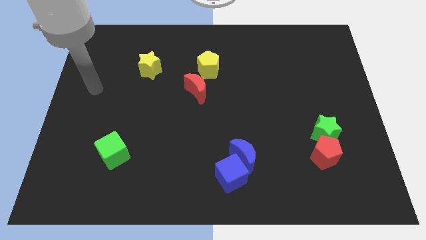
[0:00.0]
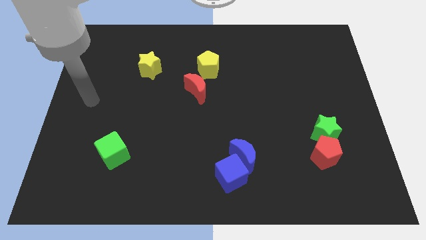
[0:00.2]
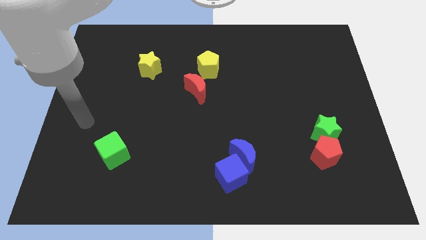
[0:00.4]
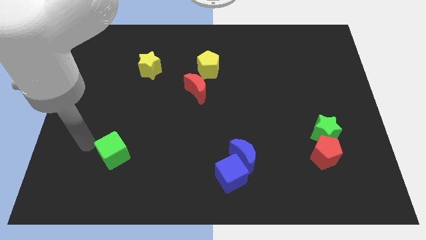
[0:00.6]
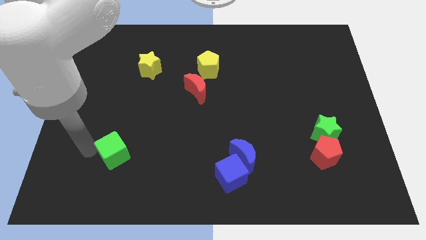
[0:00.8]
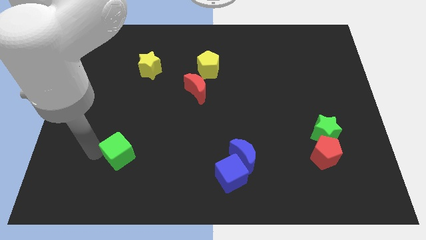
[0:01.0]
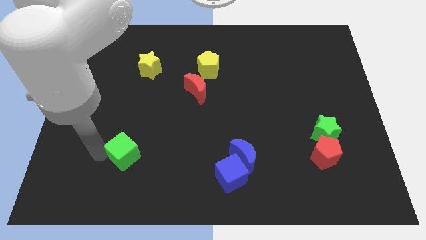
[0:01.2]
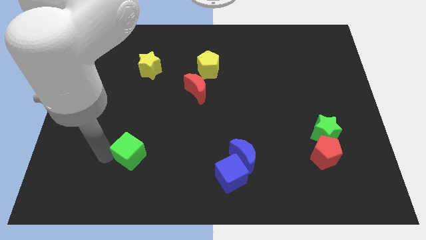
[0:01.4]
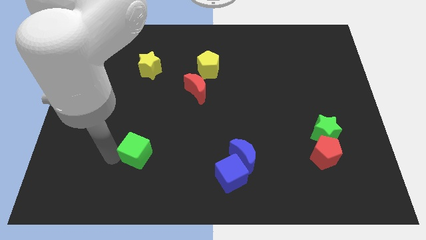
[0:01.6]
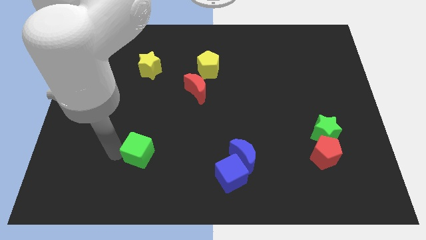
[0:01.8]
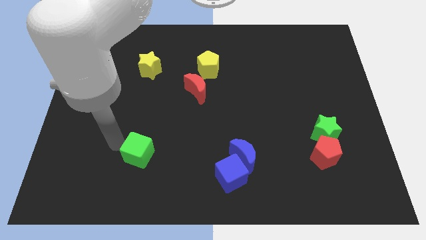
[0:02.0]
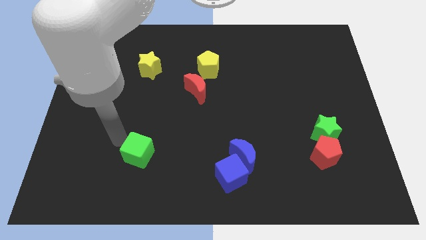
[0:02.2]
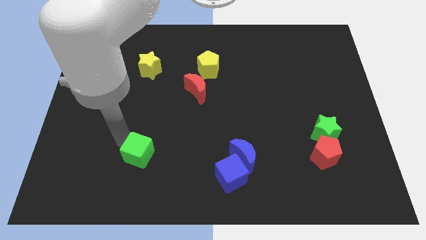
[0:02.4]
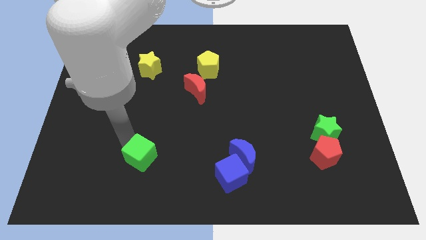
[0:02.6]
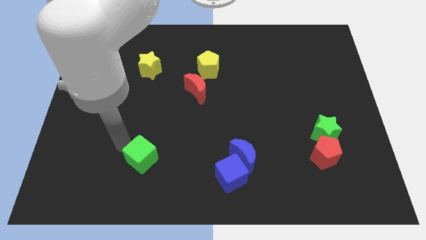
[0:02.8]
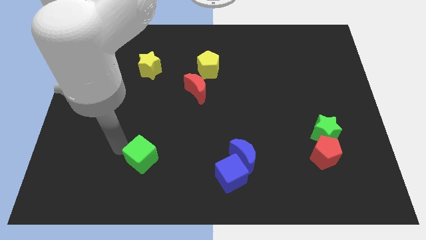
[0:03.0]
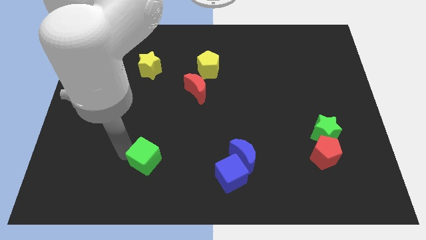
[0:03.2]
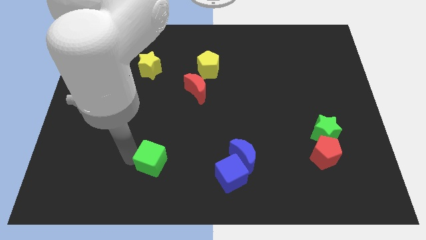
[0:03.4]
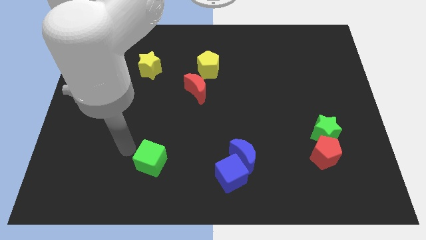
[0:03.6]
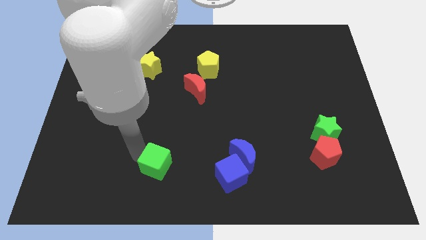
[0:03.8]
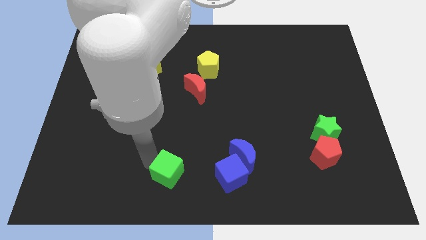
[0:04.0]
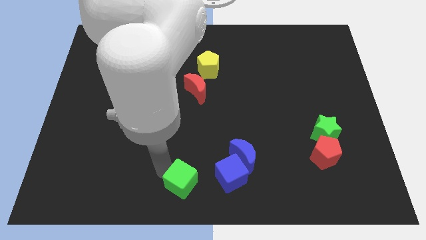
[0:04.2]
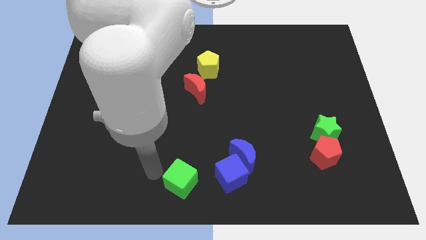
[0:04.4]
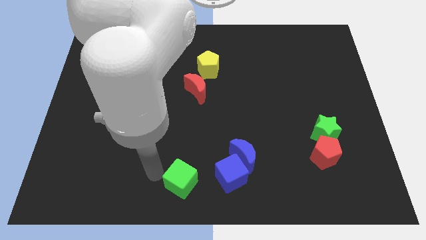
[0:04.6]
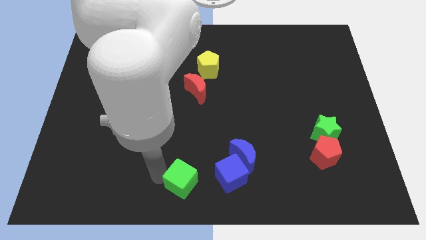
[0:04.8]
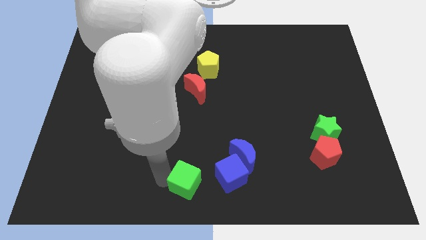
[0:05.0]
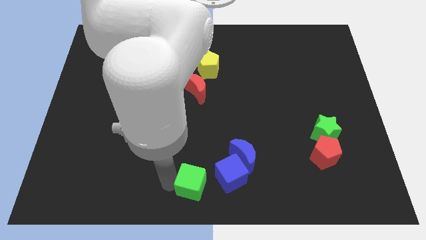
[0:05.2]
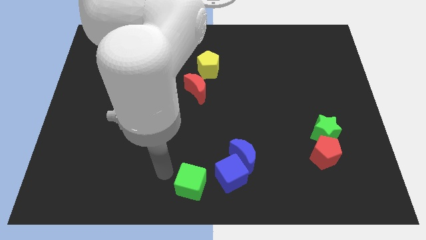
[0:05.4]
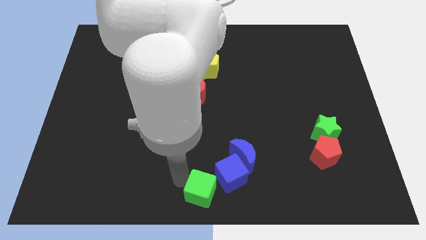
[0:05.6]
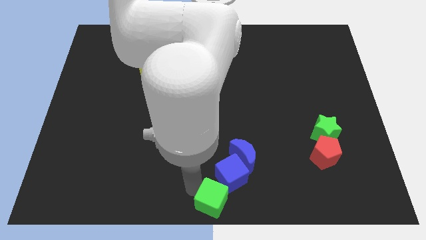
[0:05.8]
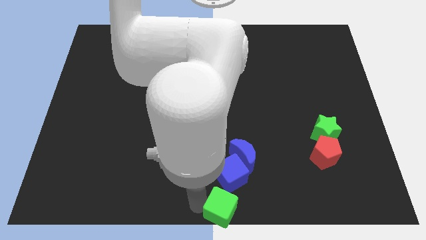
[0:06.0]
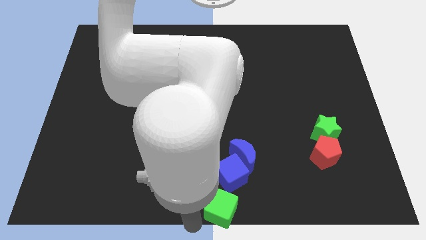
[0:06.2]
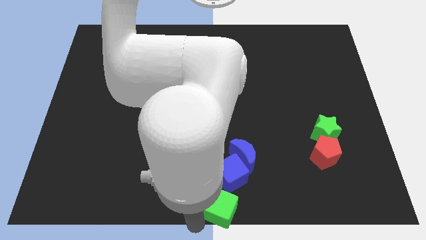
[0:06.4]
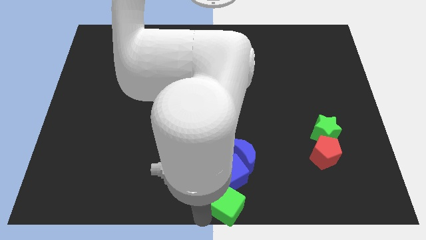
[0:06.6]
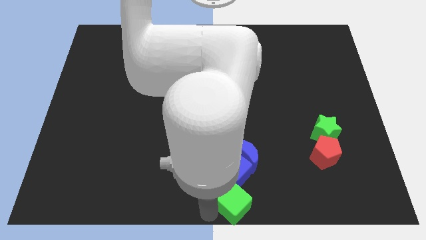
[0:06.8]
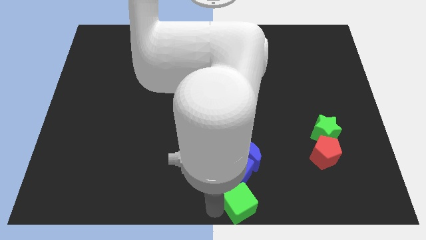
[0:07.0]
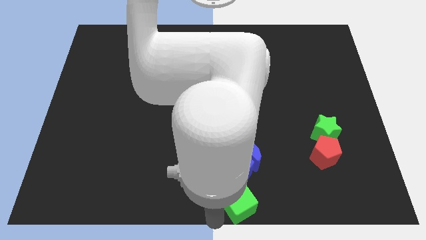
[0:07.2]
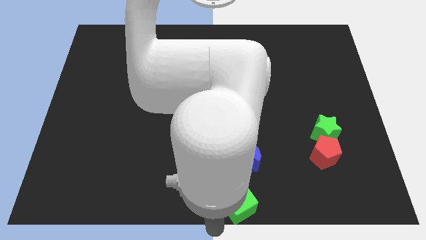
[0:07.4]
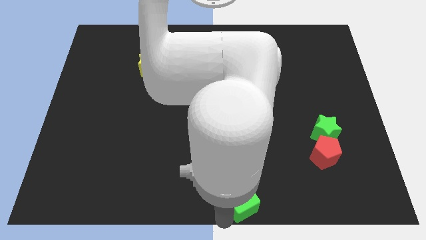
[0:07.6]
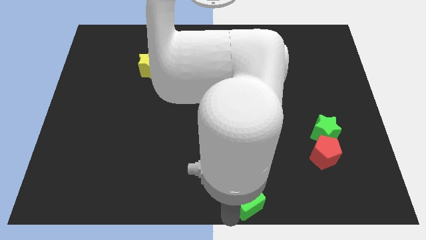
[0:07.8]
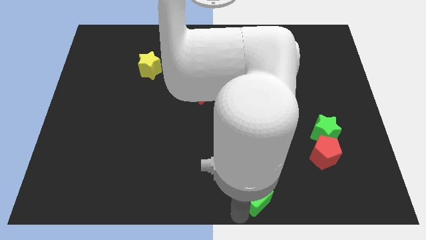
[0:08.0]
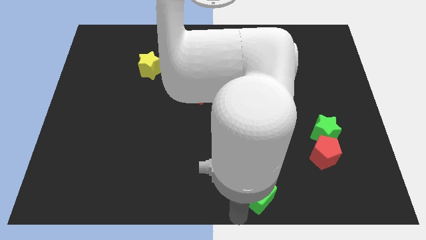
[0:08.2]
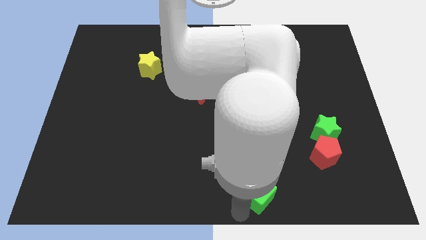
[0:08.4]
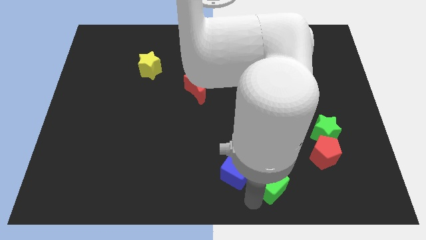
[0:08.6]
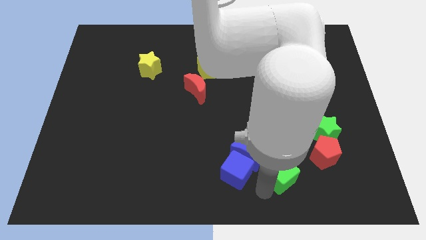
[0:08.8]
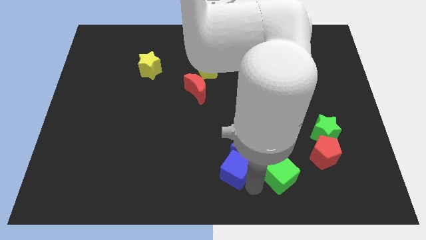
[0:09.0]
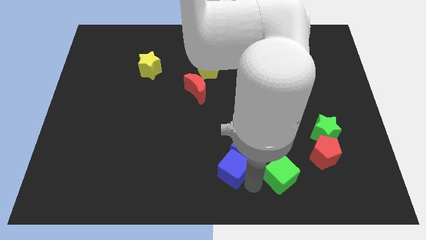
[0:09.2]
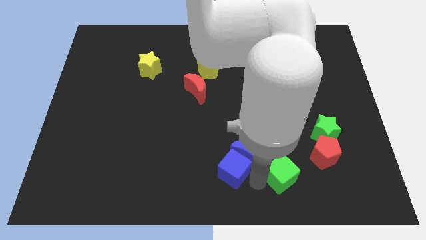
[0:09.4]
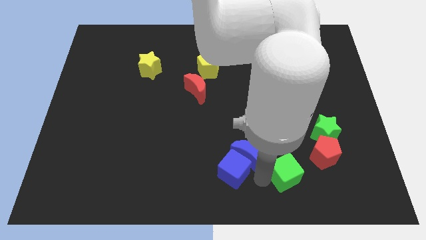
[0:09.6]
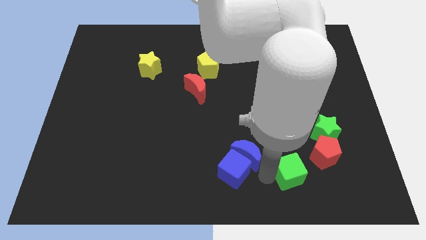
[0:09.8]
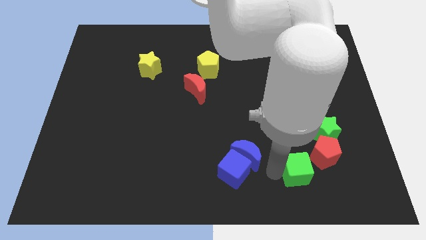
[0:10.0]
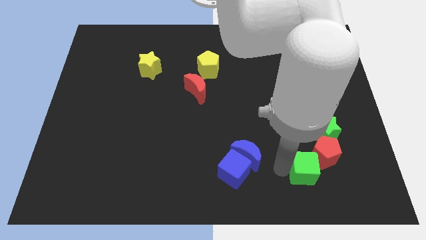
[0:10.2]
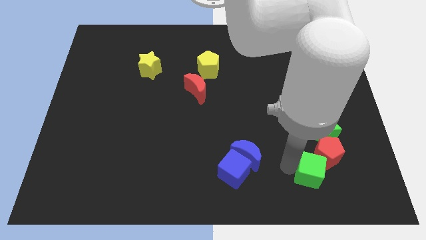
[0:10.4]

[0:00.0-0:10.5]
push the green cube below the green star

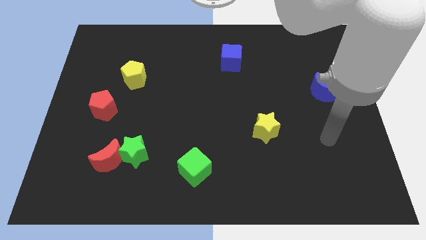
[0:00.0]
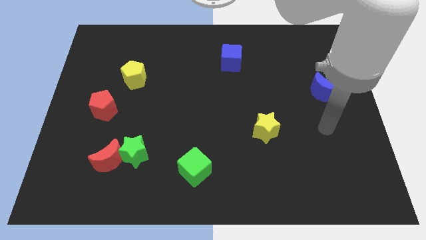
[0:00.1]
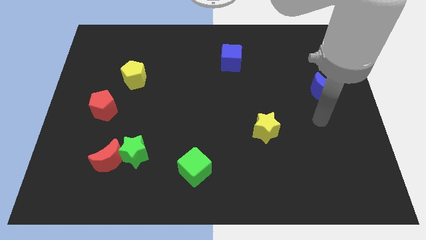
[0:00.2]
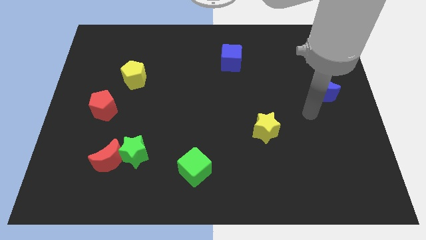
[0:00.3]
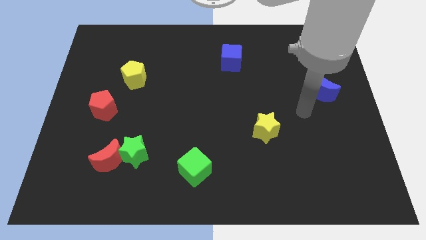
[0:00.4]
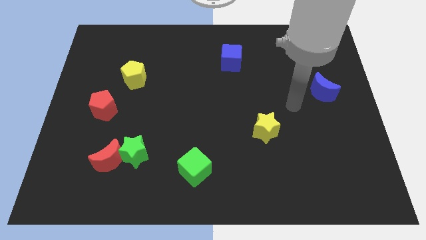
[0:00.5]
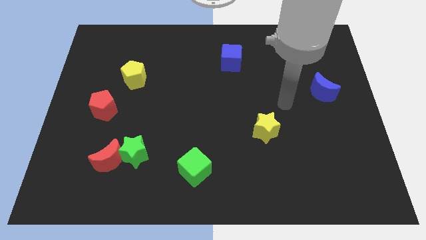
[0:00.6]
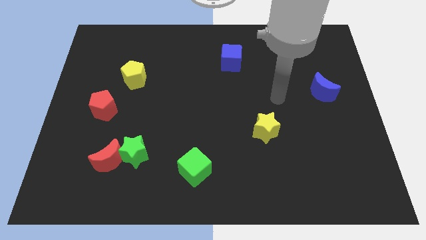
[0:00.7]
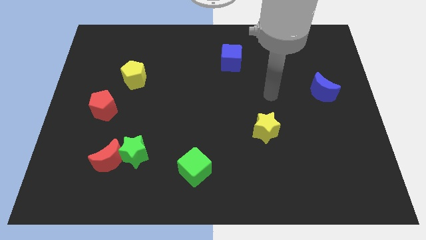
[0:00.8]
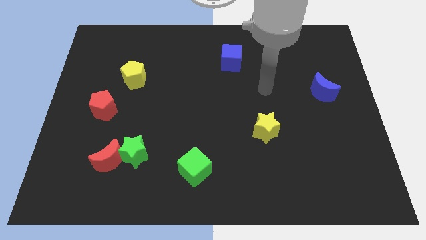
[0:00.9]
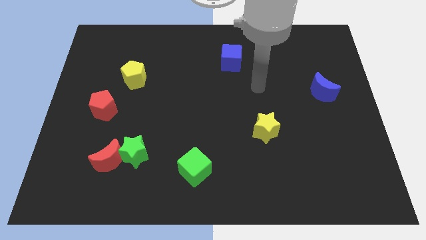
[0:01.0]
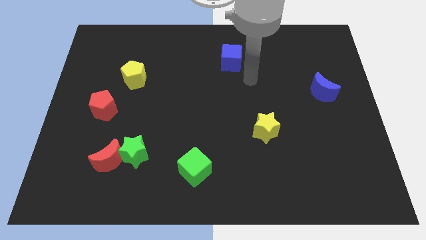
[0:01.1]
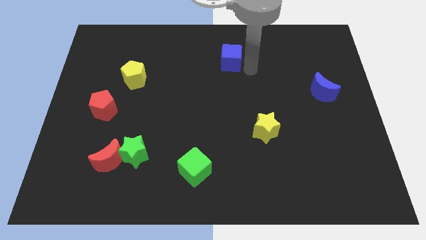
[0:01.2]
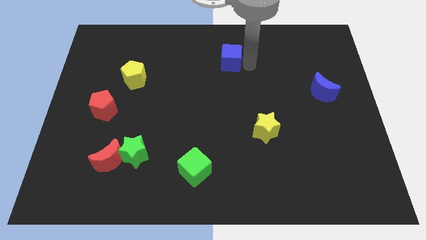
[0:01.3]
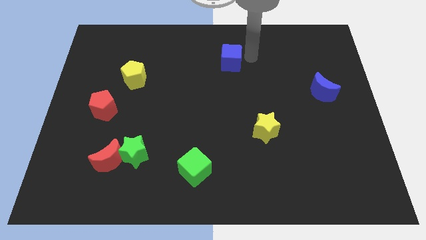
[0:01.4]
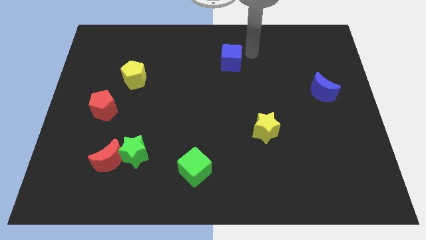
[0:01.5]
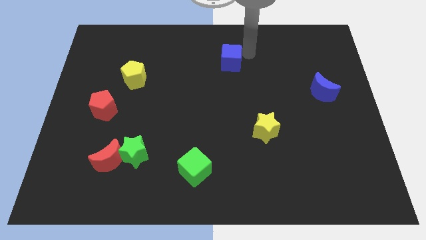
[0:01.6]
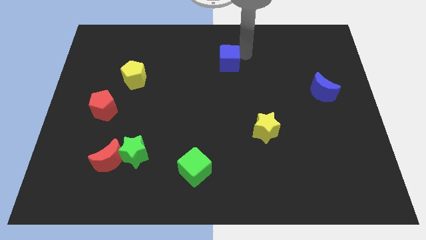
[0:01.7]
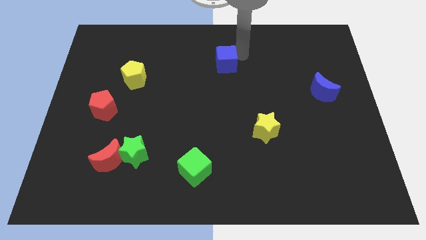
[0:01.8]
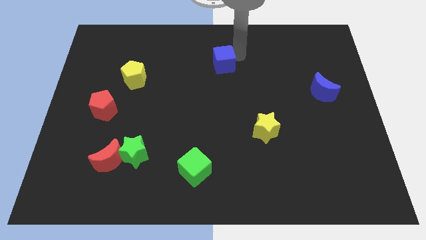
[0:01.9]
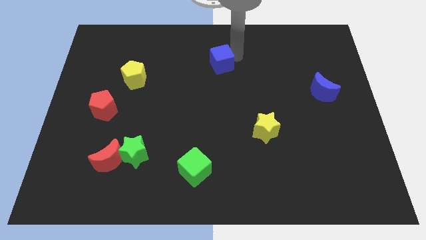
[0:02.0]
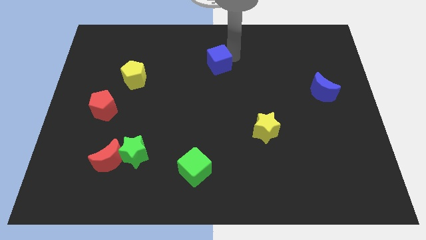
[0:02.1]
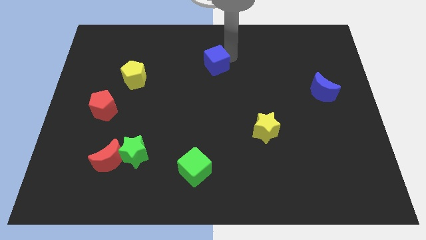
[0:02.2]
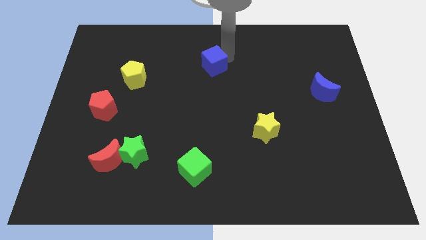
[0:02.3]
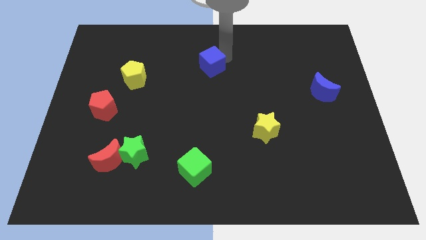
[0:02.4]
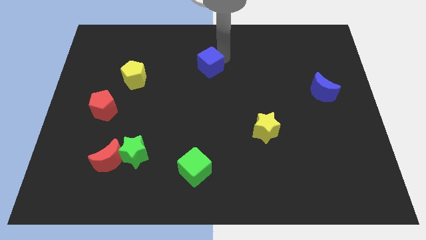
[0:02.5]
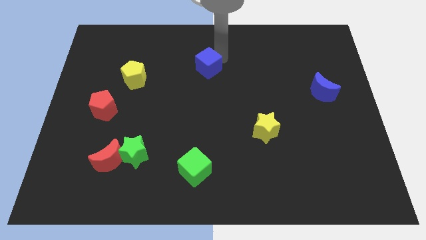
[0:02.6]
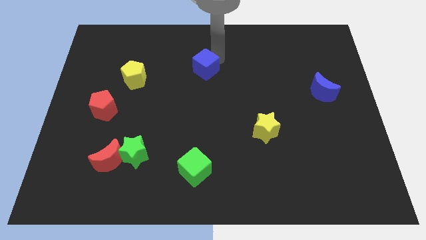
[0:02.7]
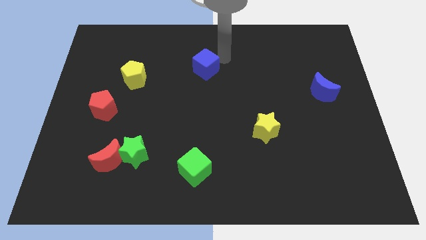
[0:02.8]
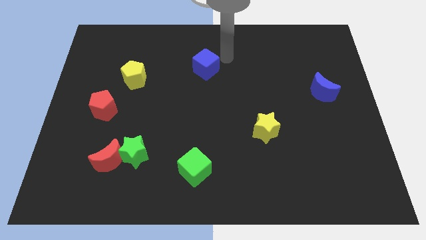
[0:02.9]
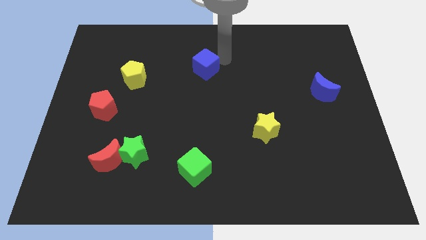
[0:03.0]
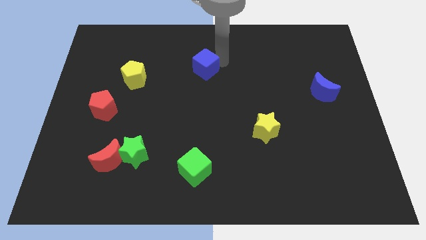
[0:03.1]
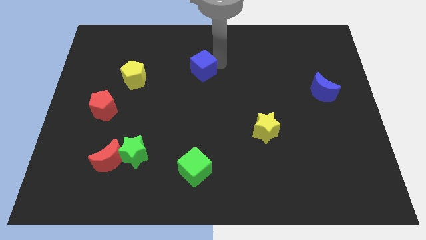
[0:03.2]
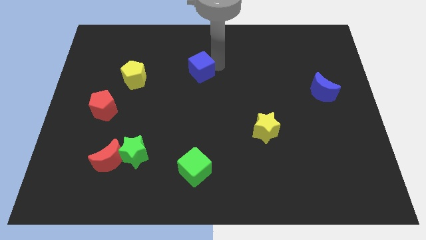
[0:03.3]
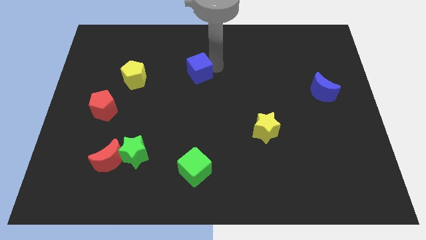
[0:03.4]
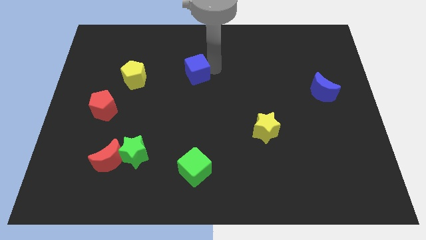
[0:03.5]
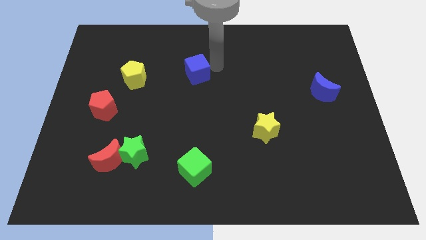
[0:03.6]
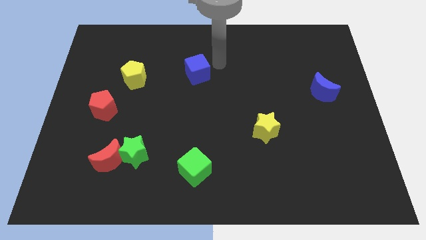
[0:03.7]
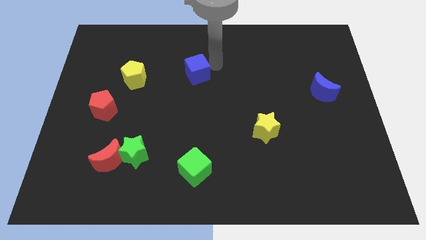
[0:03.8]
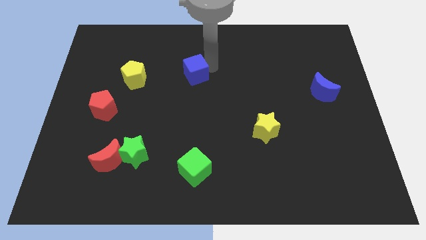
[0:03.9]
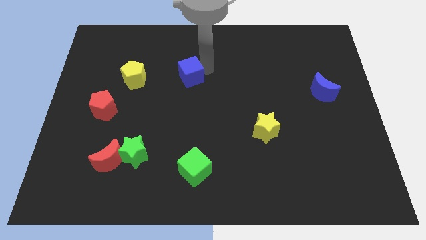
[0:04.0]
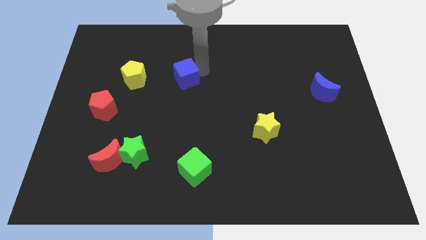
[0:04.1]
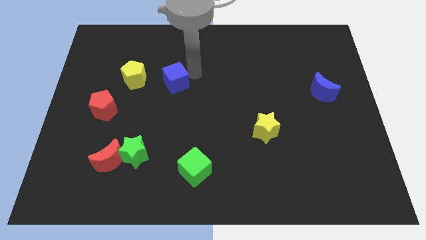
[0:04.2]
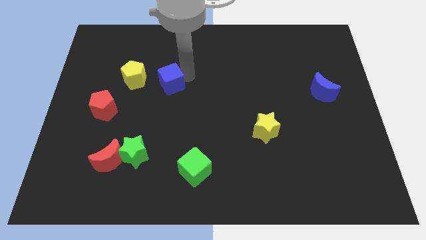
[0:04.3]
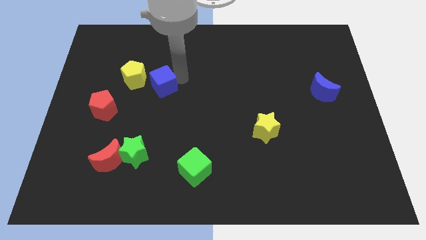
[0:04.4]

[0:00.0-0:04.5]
move the blue cube diagonally down and to the right of the yellow pentagon
